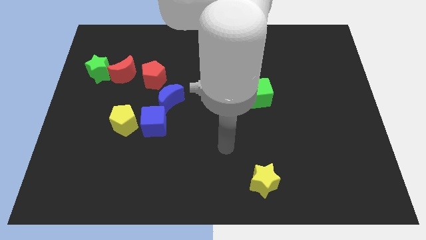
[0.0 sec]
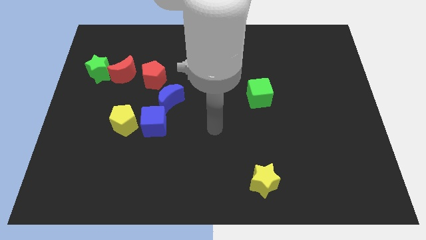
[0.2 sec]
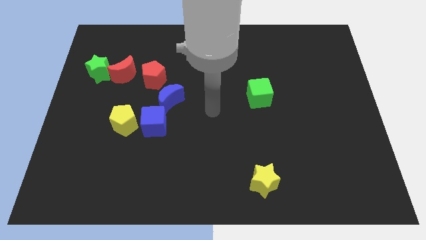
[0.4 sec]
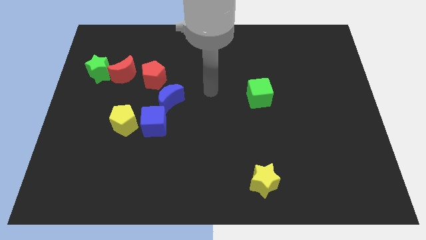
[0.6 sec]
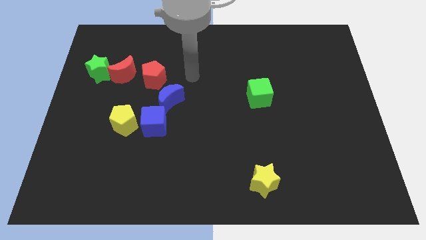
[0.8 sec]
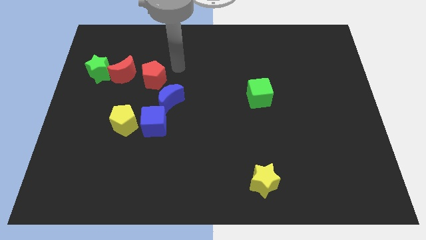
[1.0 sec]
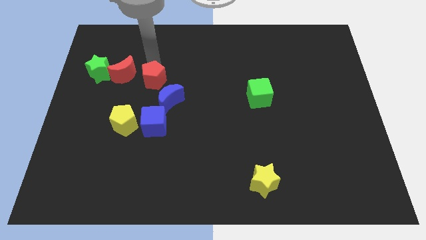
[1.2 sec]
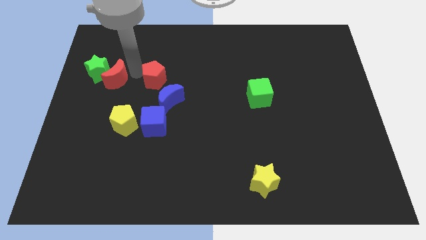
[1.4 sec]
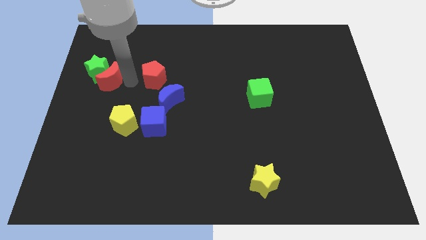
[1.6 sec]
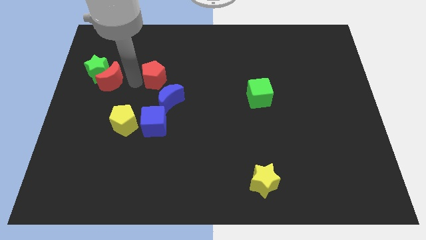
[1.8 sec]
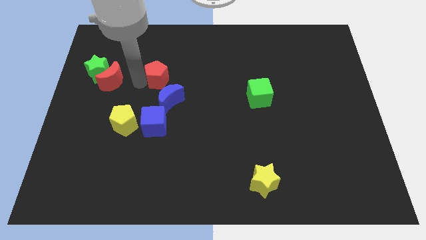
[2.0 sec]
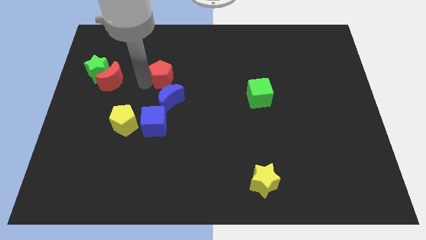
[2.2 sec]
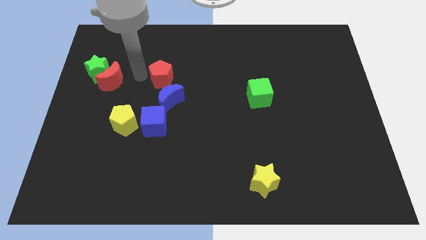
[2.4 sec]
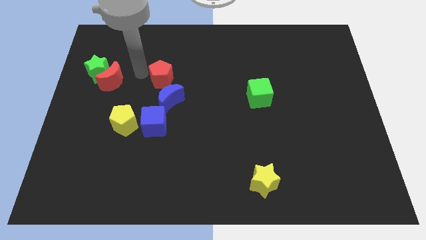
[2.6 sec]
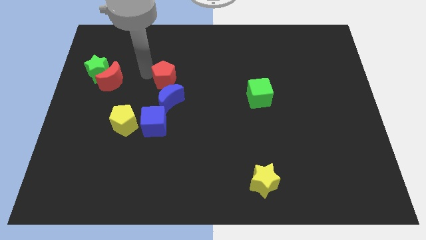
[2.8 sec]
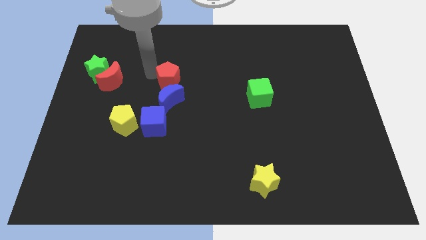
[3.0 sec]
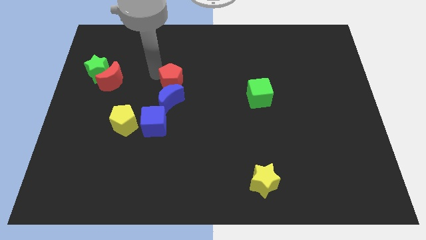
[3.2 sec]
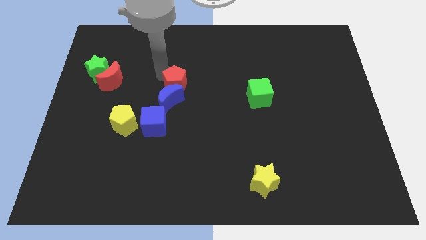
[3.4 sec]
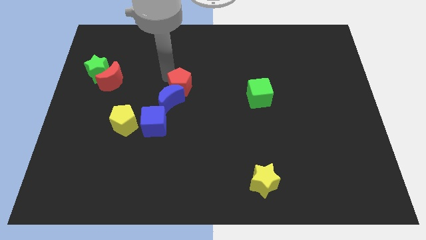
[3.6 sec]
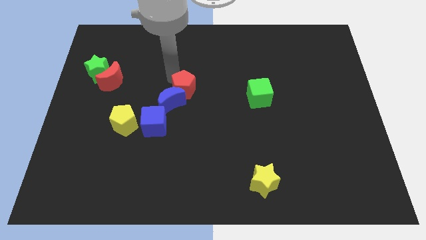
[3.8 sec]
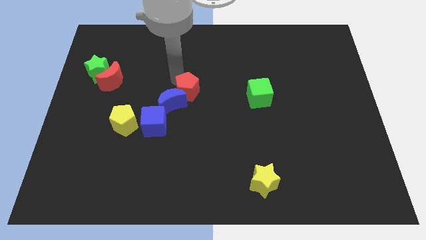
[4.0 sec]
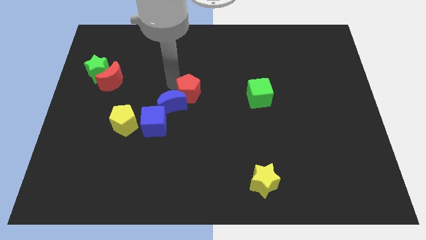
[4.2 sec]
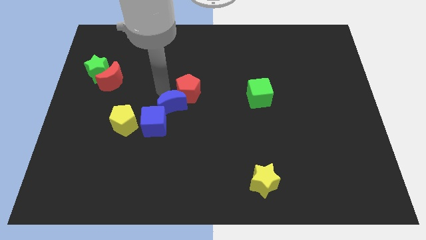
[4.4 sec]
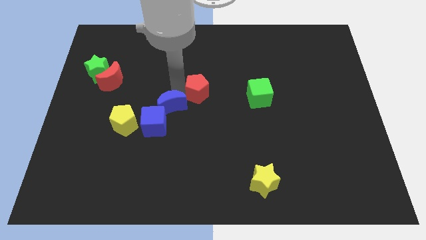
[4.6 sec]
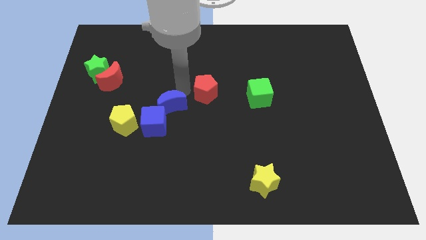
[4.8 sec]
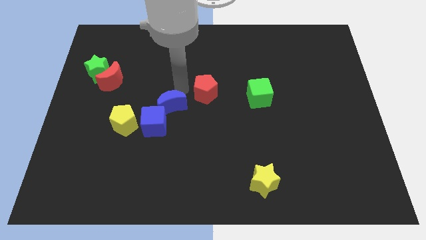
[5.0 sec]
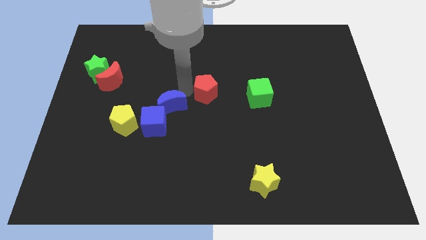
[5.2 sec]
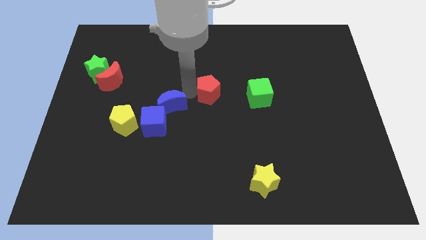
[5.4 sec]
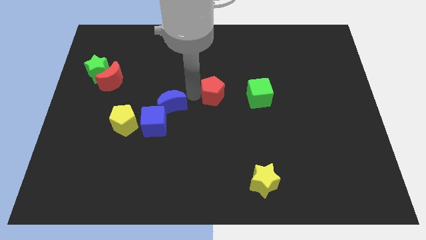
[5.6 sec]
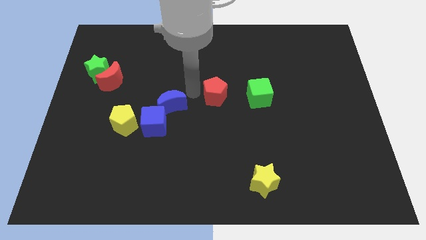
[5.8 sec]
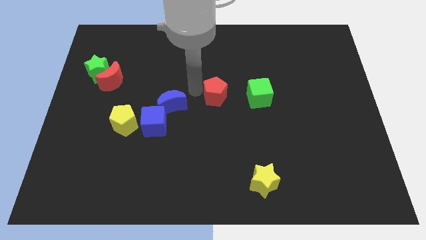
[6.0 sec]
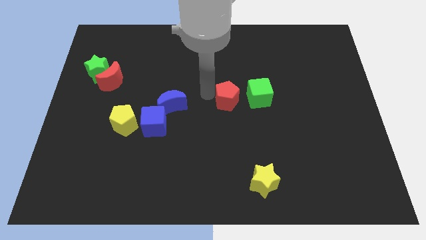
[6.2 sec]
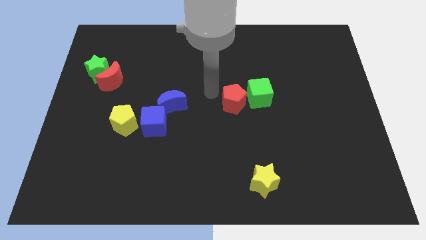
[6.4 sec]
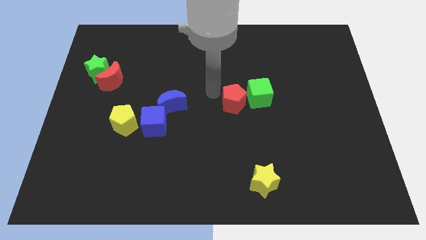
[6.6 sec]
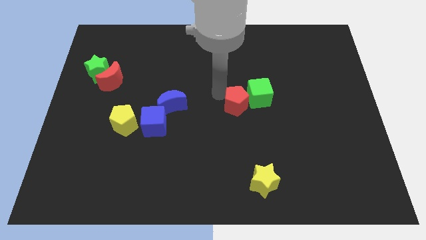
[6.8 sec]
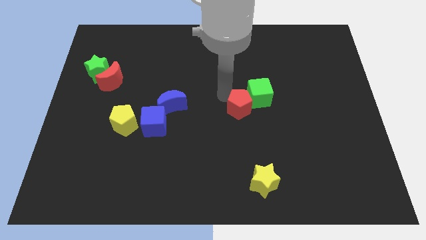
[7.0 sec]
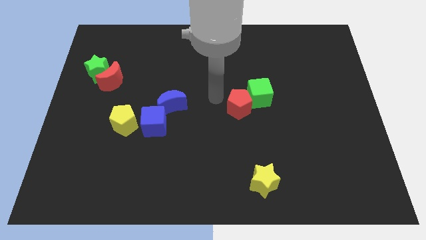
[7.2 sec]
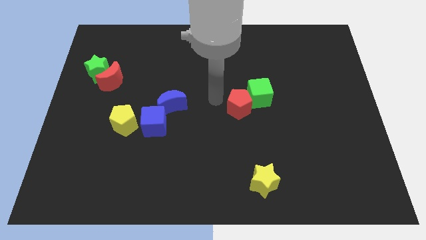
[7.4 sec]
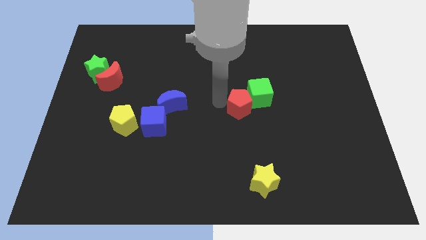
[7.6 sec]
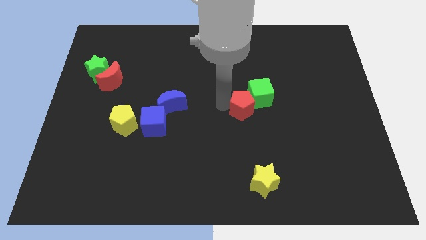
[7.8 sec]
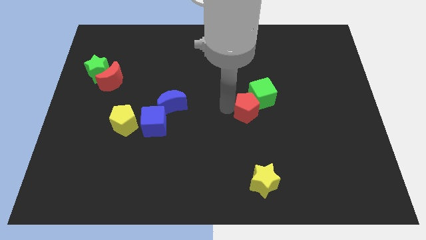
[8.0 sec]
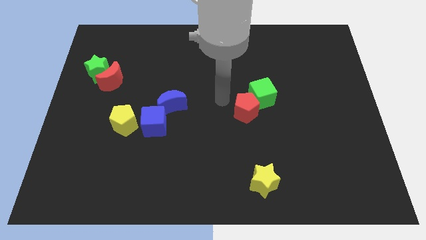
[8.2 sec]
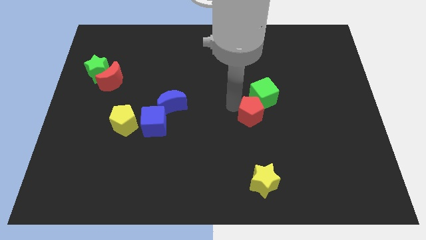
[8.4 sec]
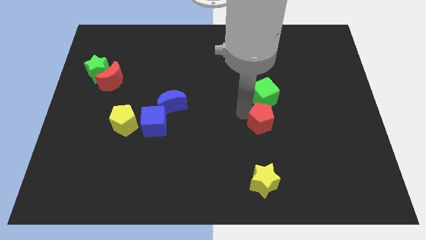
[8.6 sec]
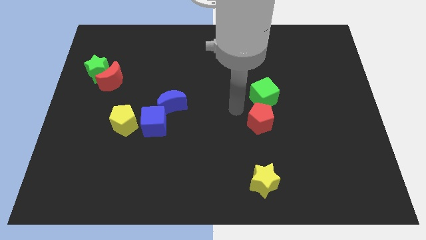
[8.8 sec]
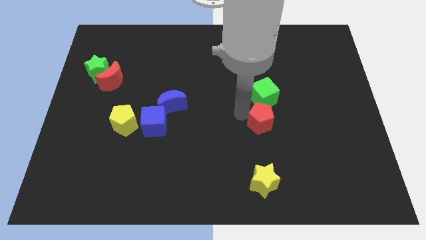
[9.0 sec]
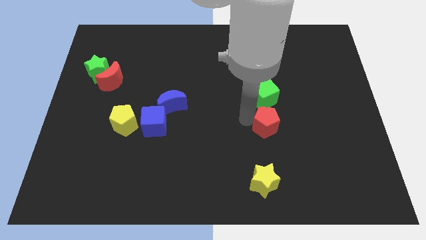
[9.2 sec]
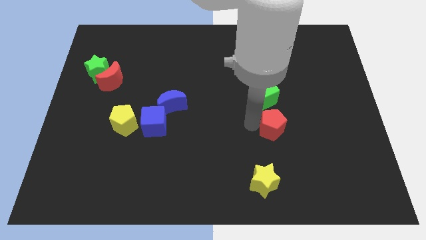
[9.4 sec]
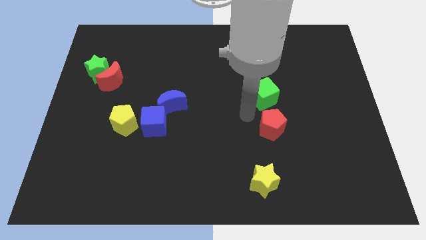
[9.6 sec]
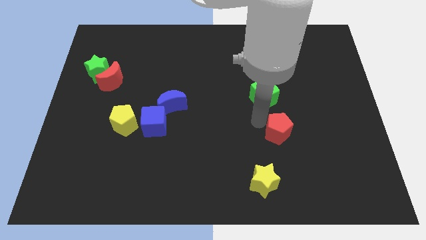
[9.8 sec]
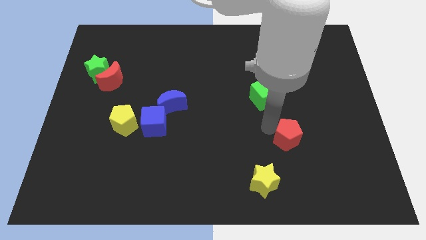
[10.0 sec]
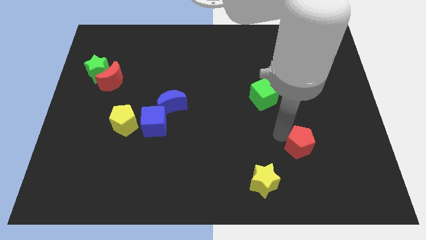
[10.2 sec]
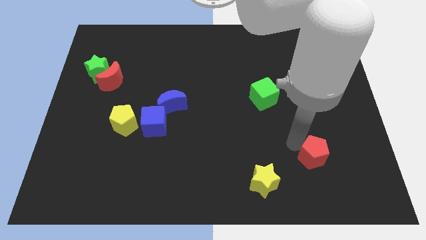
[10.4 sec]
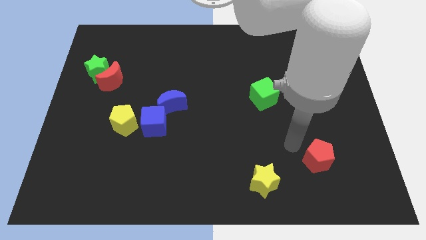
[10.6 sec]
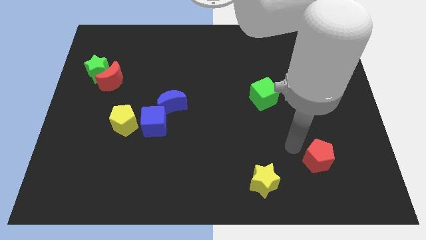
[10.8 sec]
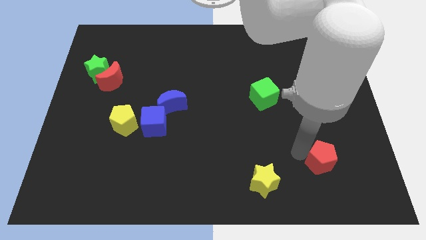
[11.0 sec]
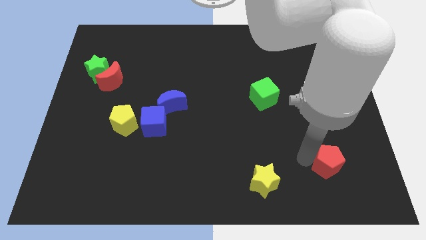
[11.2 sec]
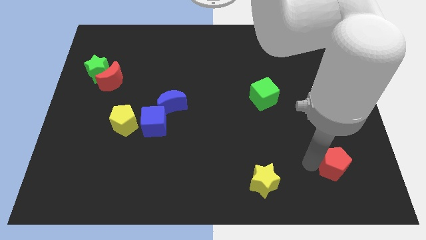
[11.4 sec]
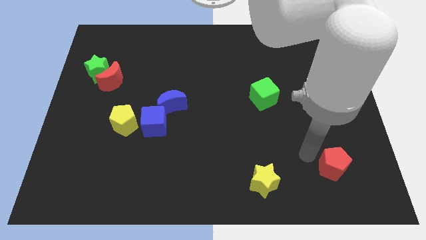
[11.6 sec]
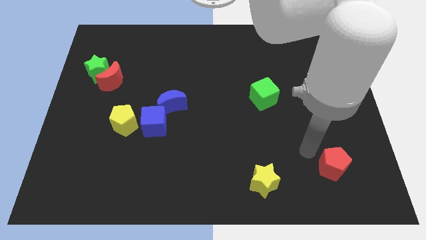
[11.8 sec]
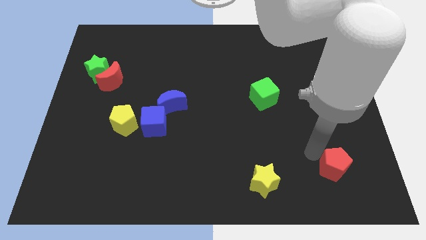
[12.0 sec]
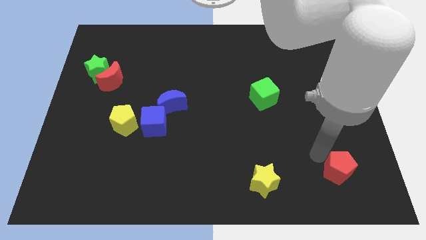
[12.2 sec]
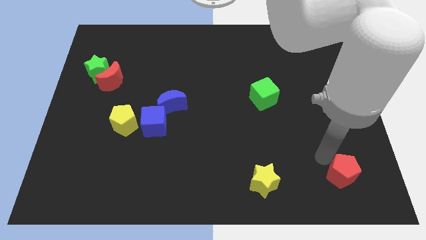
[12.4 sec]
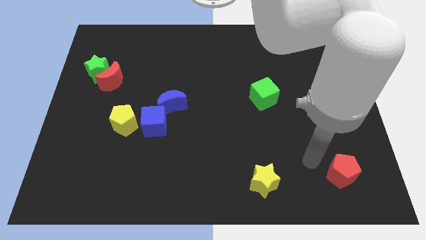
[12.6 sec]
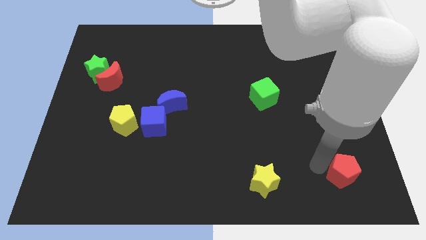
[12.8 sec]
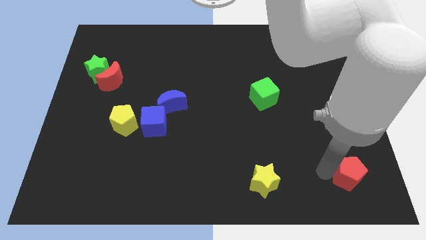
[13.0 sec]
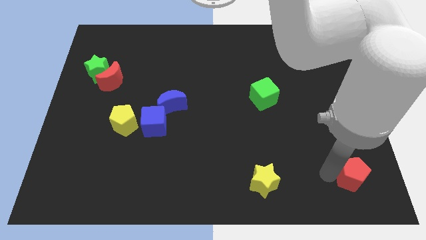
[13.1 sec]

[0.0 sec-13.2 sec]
push the red pentagon to the bottom right
